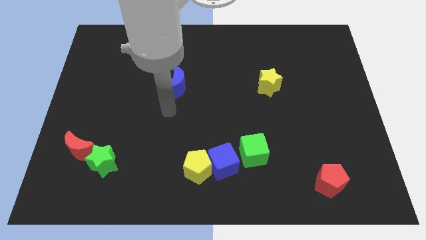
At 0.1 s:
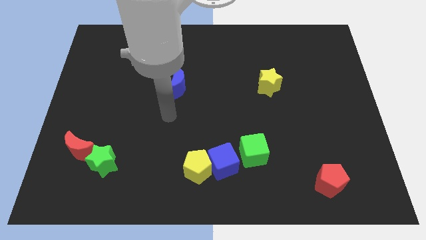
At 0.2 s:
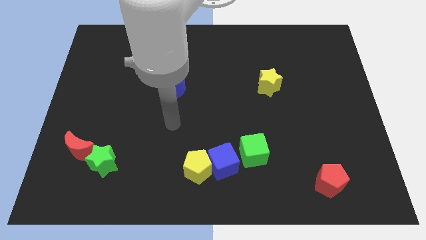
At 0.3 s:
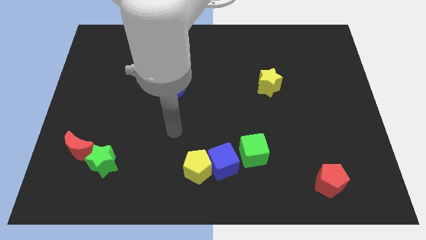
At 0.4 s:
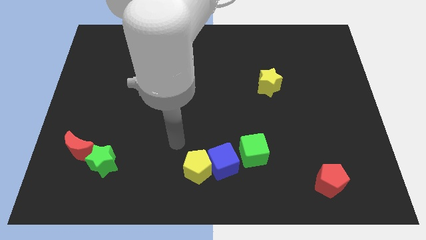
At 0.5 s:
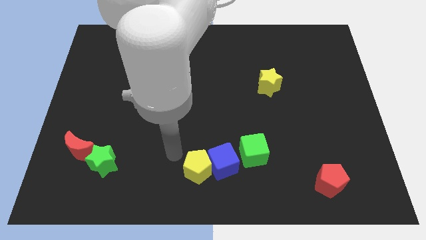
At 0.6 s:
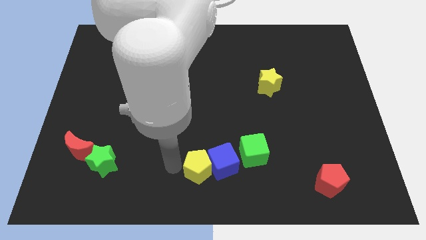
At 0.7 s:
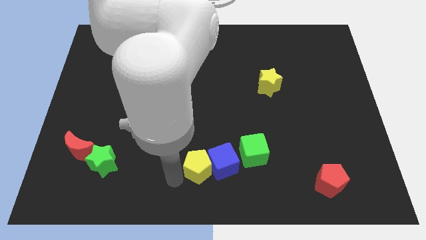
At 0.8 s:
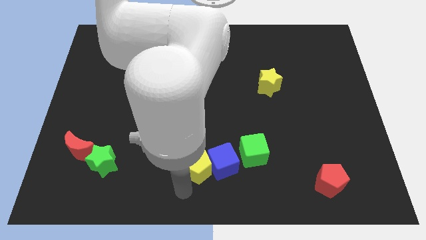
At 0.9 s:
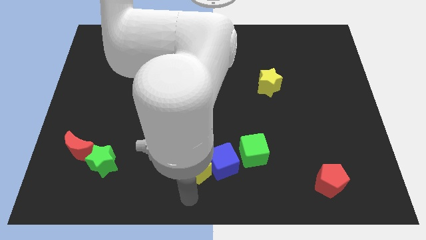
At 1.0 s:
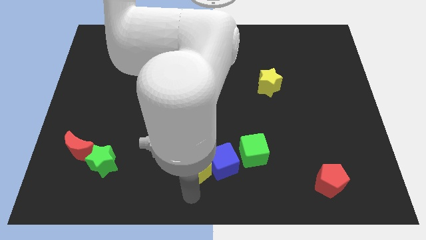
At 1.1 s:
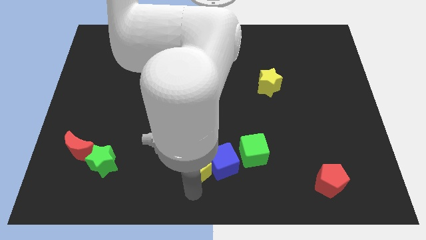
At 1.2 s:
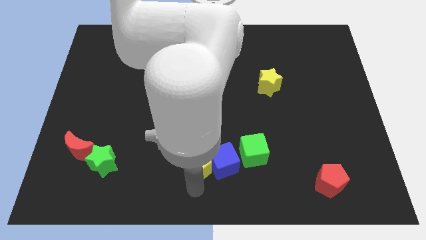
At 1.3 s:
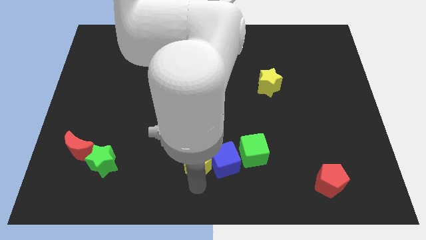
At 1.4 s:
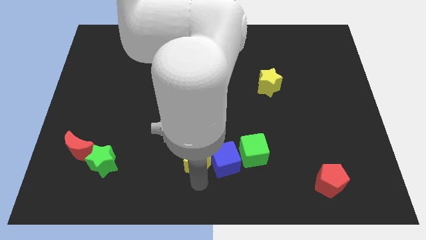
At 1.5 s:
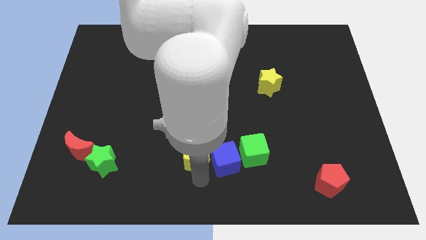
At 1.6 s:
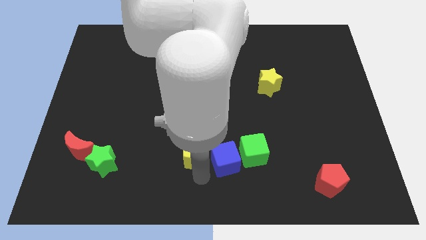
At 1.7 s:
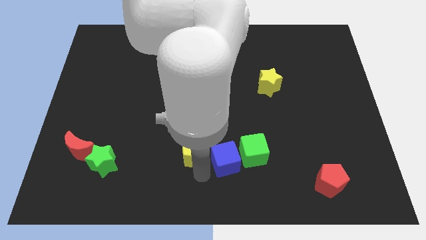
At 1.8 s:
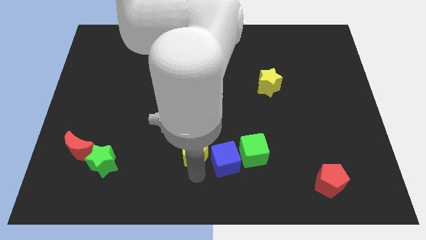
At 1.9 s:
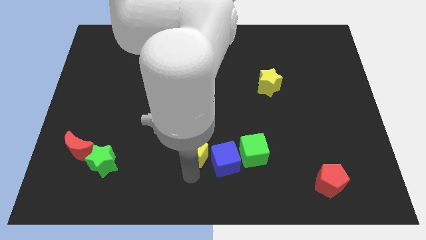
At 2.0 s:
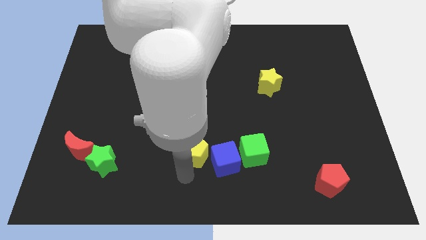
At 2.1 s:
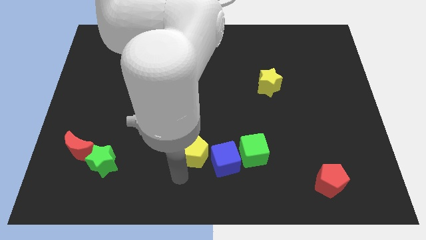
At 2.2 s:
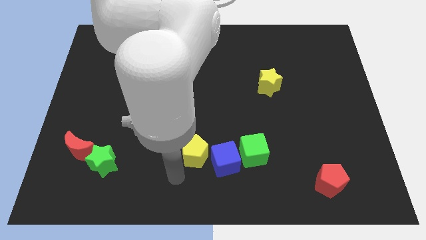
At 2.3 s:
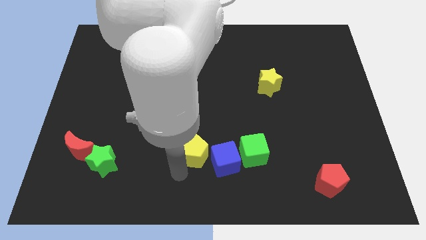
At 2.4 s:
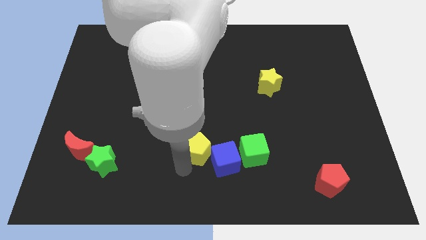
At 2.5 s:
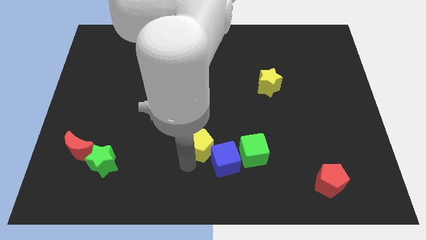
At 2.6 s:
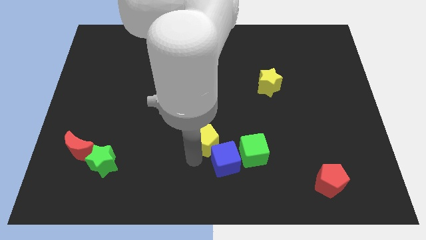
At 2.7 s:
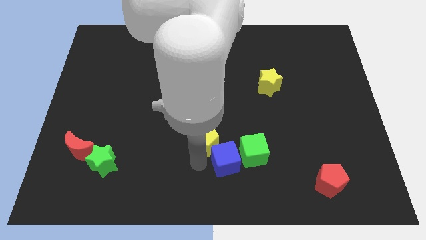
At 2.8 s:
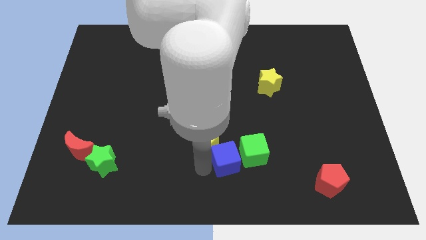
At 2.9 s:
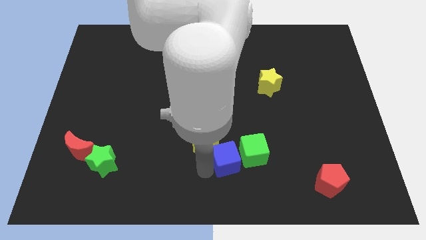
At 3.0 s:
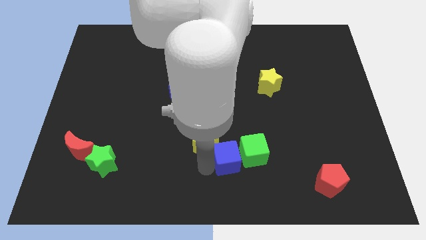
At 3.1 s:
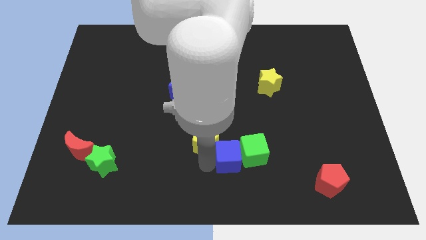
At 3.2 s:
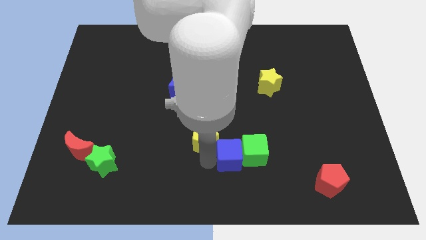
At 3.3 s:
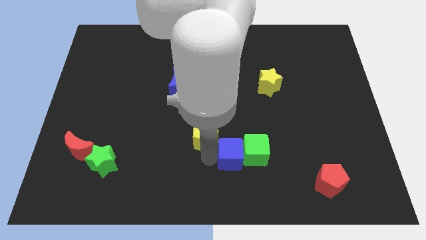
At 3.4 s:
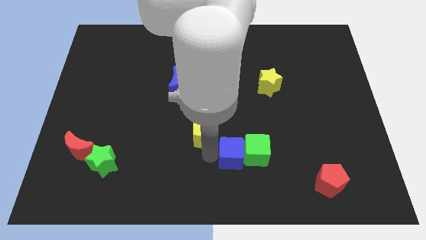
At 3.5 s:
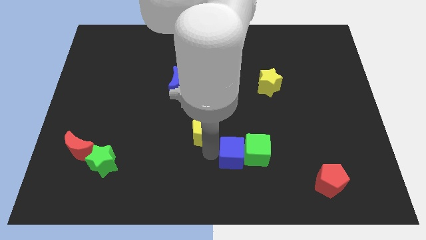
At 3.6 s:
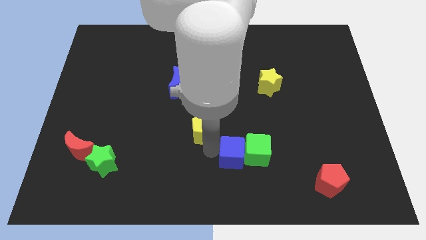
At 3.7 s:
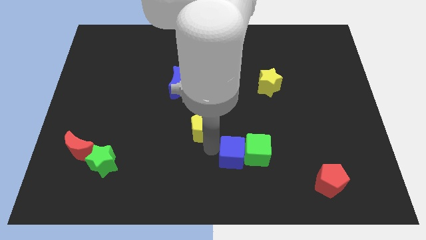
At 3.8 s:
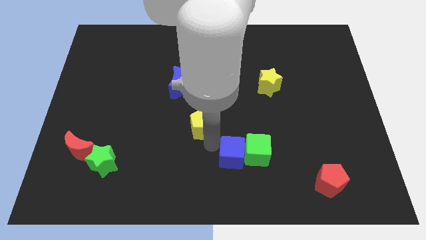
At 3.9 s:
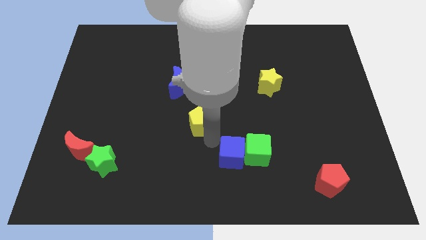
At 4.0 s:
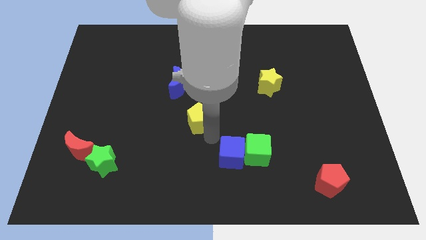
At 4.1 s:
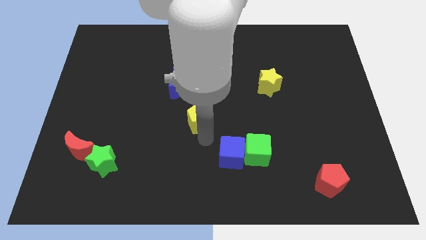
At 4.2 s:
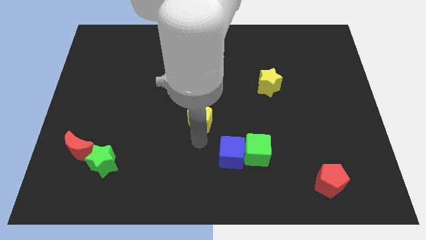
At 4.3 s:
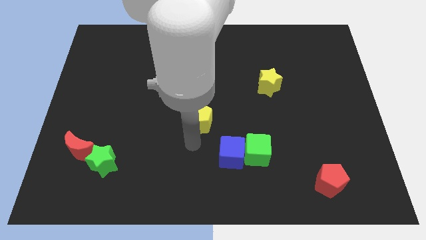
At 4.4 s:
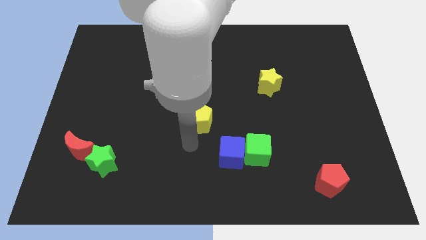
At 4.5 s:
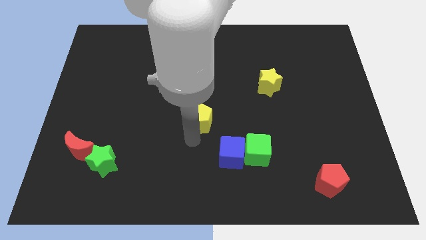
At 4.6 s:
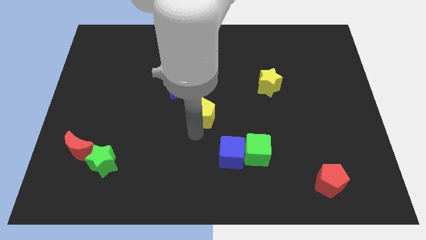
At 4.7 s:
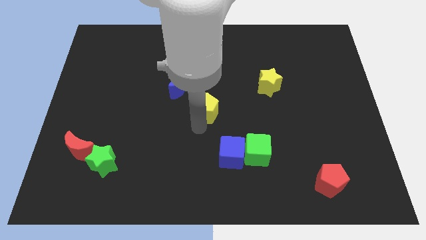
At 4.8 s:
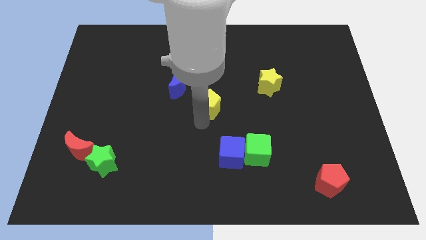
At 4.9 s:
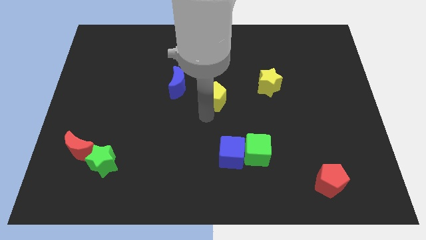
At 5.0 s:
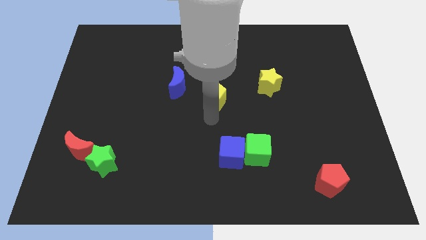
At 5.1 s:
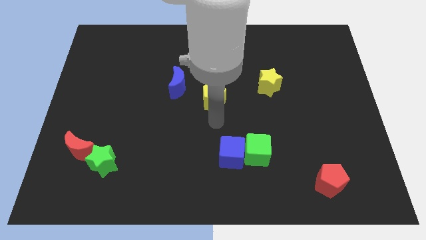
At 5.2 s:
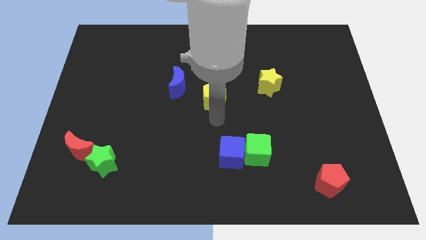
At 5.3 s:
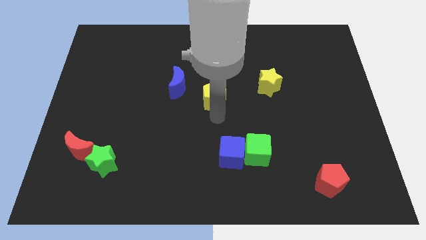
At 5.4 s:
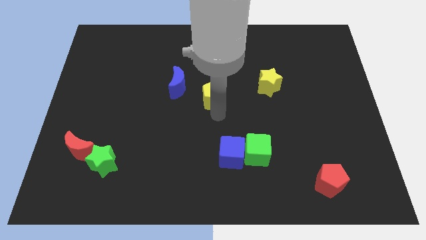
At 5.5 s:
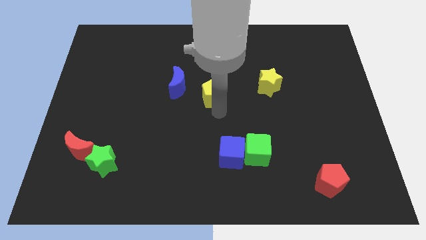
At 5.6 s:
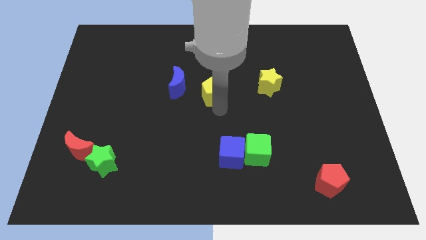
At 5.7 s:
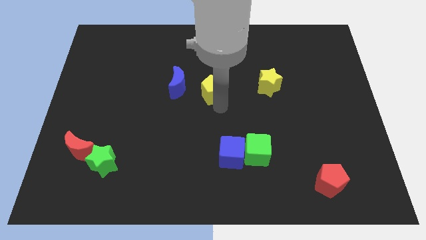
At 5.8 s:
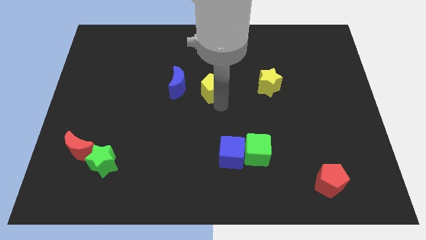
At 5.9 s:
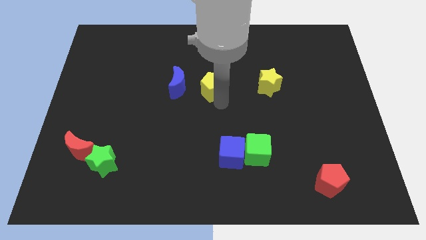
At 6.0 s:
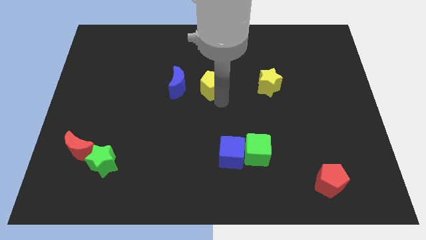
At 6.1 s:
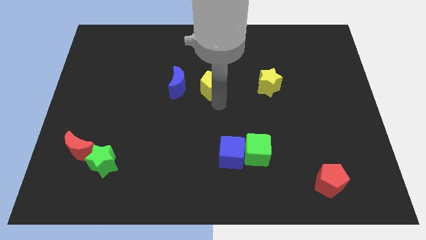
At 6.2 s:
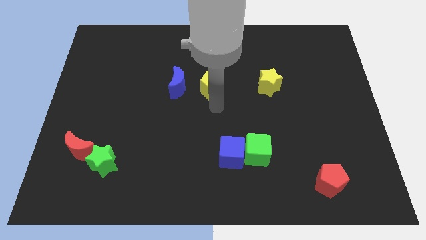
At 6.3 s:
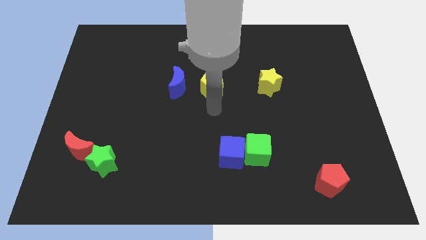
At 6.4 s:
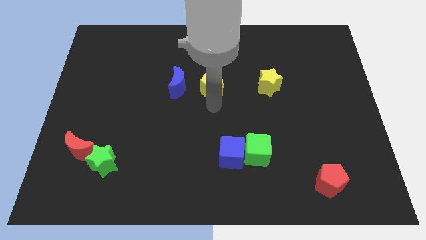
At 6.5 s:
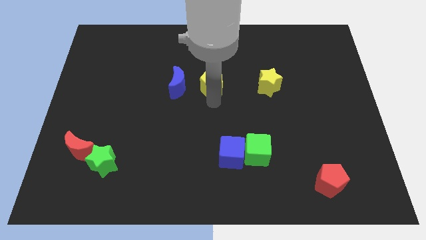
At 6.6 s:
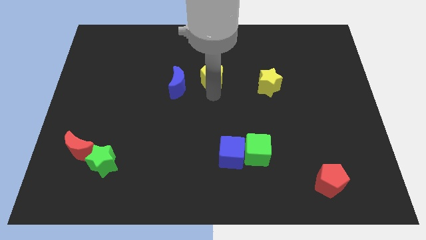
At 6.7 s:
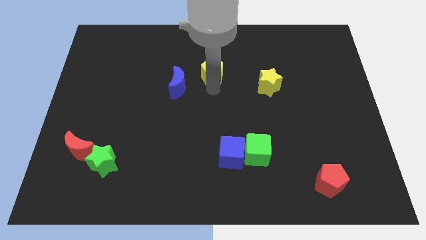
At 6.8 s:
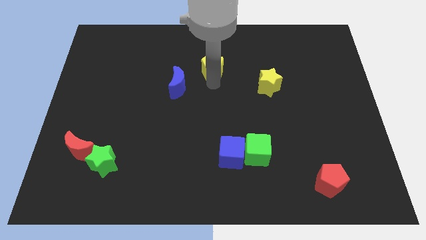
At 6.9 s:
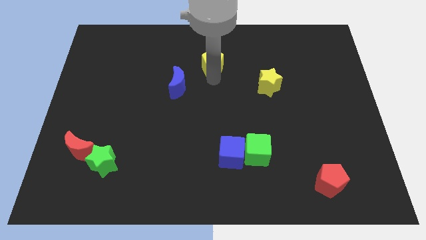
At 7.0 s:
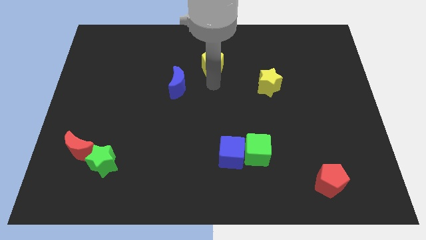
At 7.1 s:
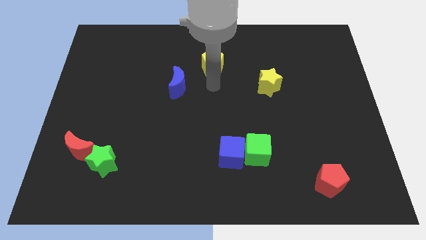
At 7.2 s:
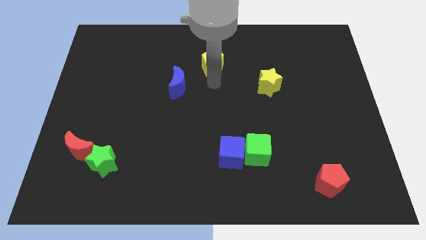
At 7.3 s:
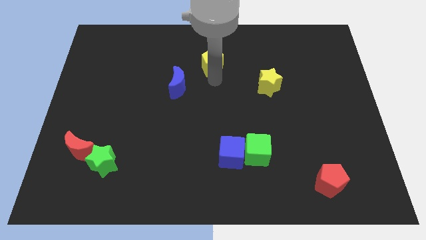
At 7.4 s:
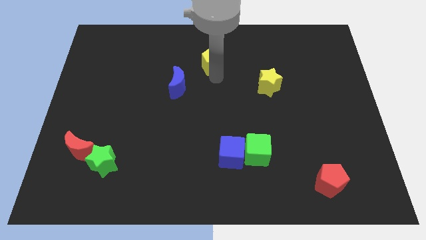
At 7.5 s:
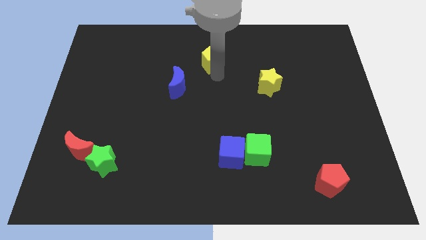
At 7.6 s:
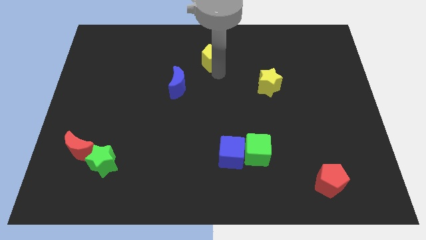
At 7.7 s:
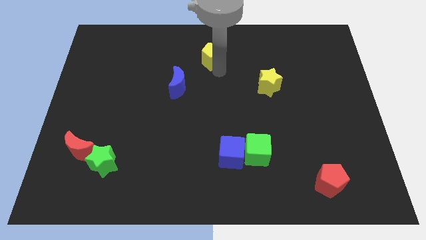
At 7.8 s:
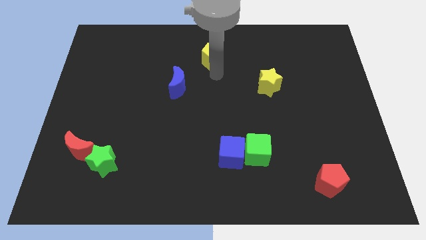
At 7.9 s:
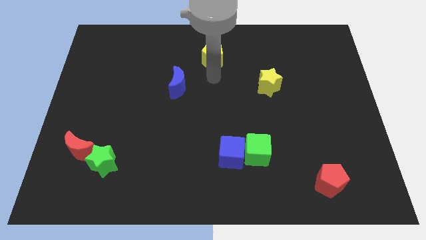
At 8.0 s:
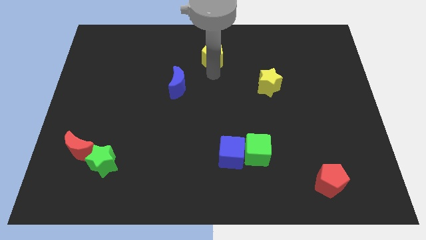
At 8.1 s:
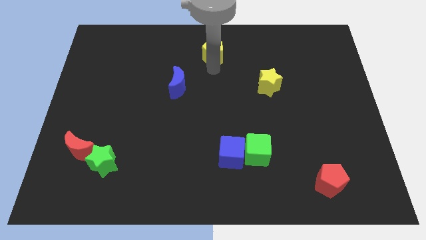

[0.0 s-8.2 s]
put the yellow pentagon to the towards your base
